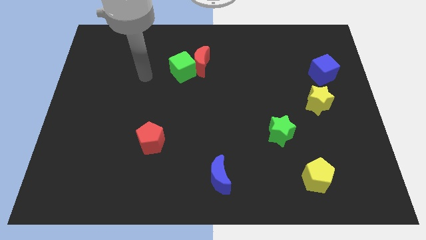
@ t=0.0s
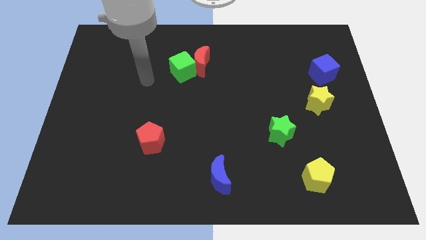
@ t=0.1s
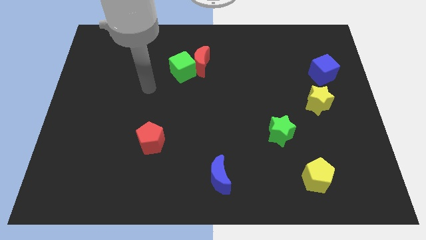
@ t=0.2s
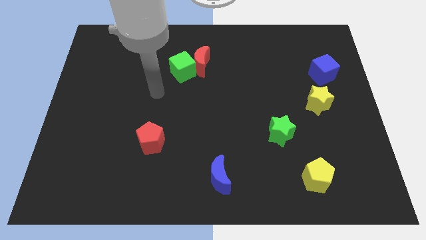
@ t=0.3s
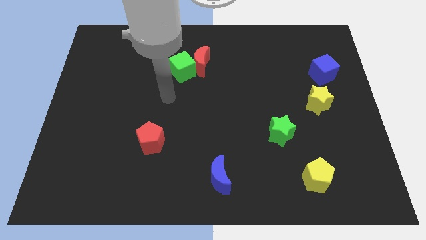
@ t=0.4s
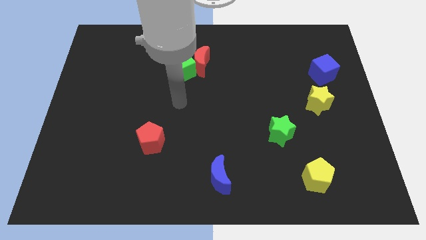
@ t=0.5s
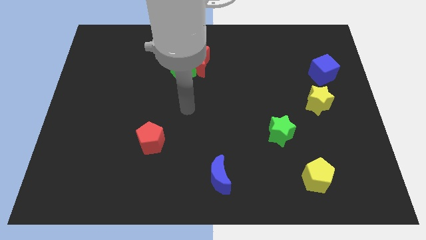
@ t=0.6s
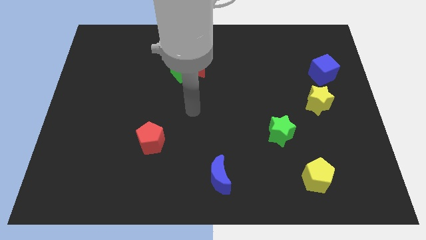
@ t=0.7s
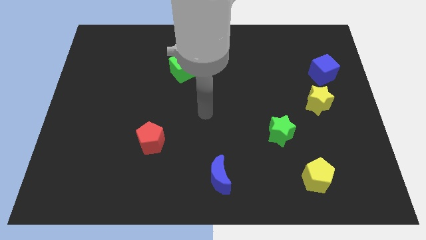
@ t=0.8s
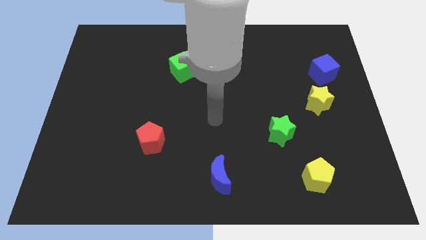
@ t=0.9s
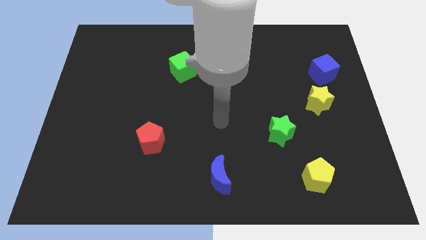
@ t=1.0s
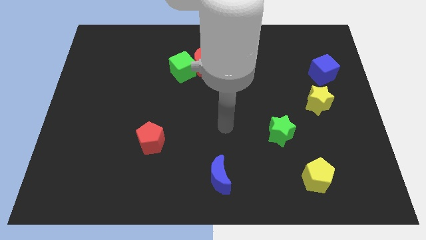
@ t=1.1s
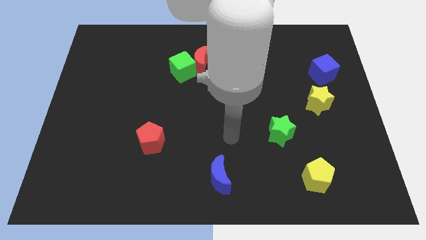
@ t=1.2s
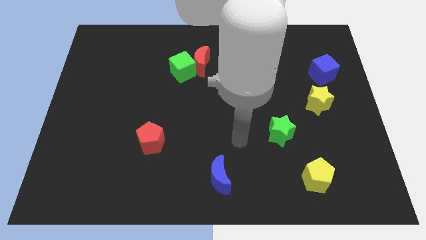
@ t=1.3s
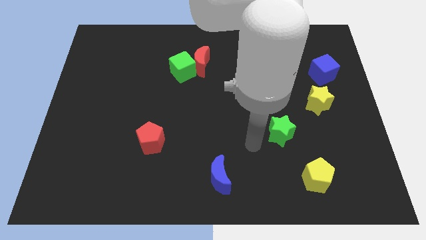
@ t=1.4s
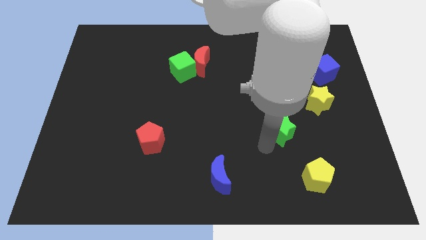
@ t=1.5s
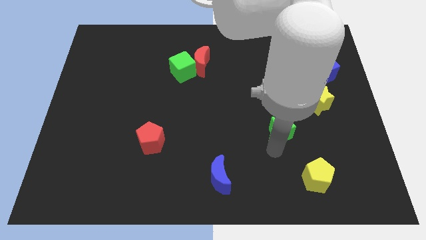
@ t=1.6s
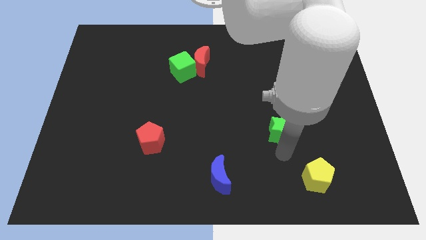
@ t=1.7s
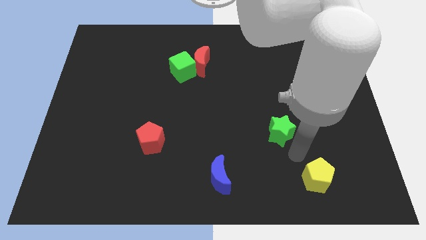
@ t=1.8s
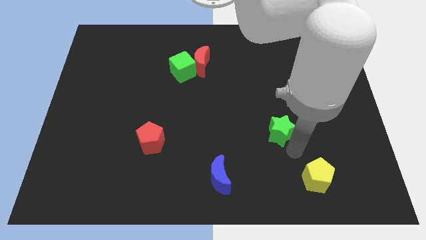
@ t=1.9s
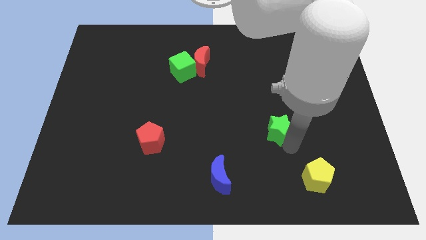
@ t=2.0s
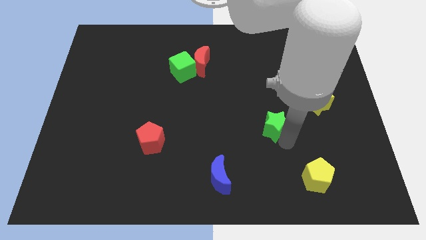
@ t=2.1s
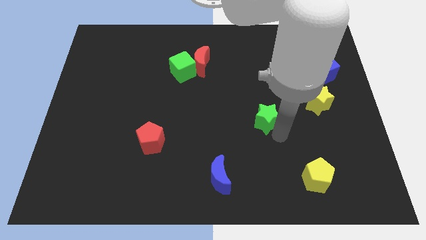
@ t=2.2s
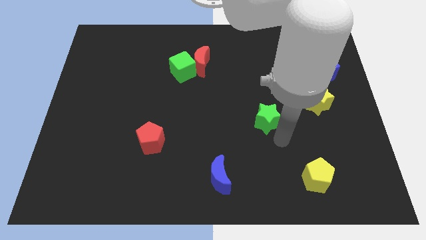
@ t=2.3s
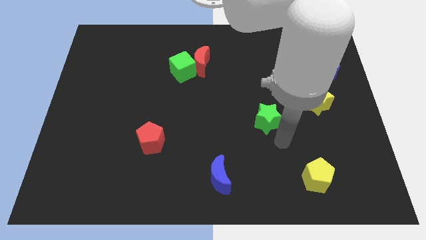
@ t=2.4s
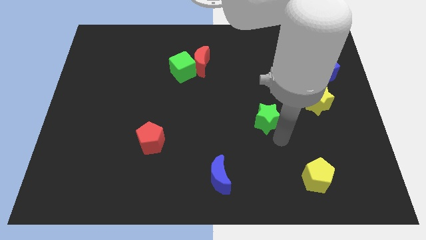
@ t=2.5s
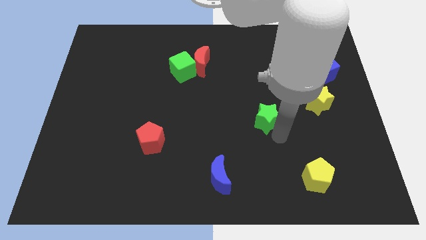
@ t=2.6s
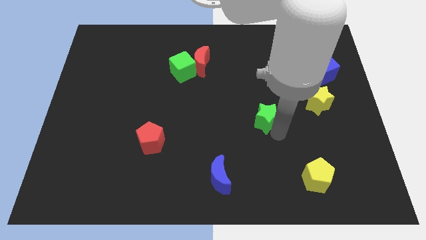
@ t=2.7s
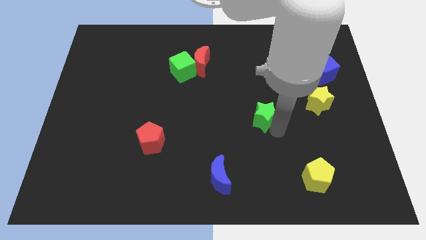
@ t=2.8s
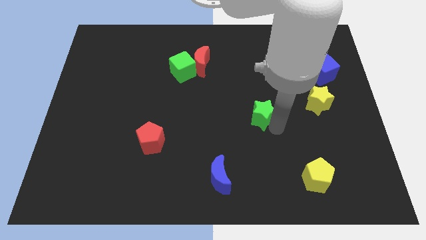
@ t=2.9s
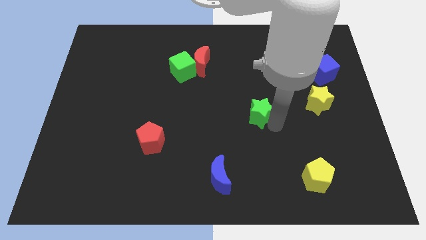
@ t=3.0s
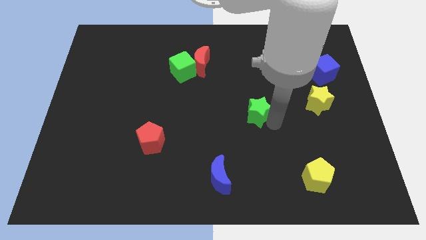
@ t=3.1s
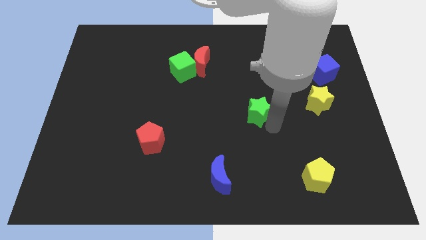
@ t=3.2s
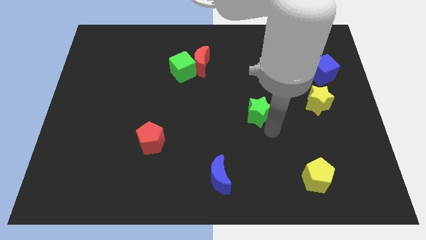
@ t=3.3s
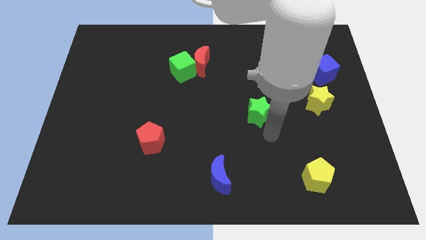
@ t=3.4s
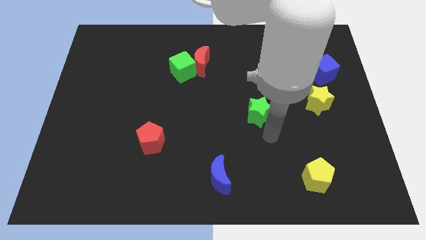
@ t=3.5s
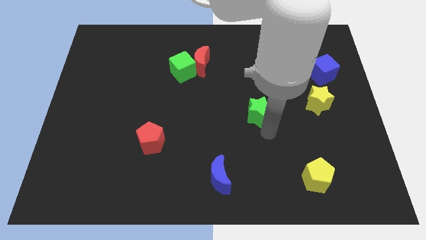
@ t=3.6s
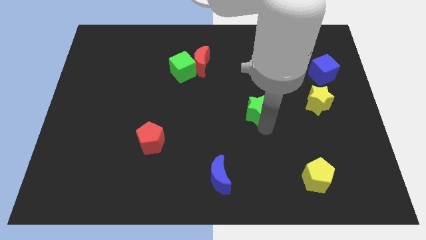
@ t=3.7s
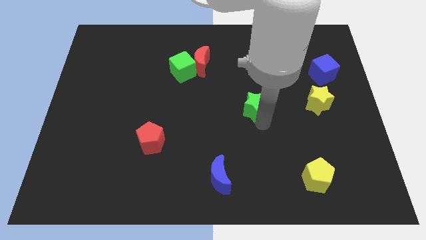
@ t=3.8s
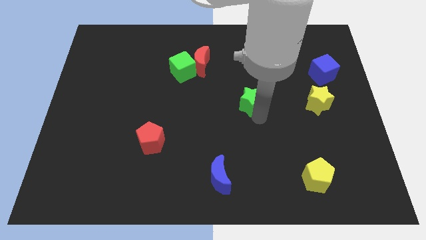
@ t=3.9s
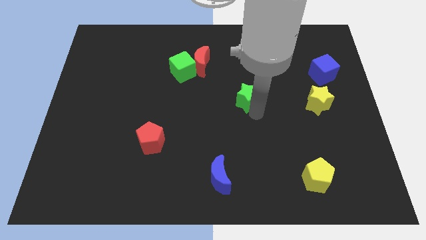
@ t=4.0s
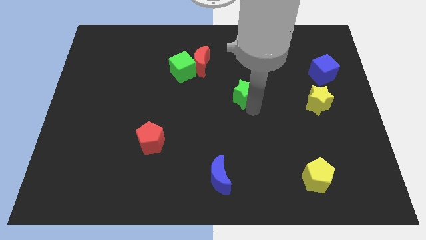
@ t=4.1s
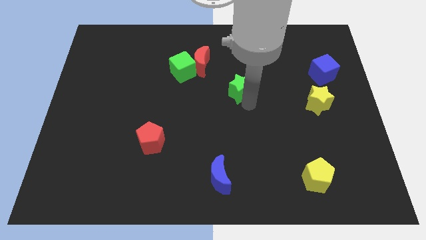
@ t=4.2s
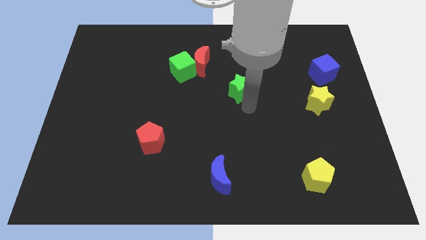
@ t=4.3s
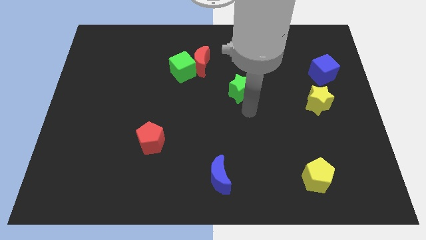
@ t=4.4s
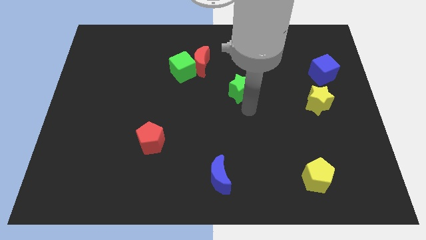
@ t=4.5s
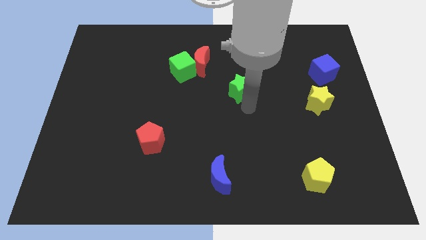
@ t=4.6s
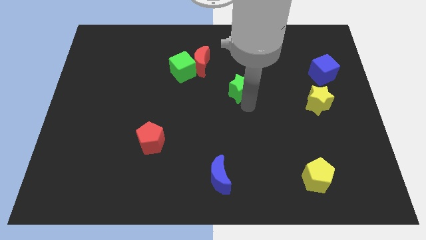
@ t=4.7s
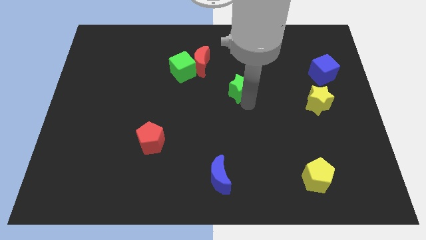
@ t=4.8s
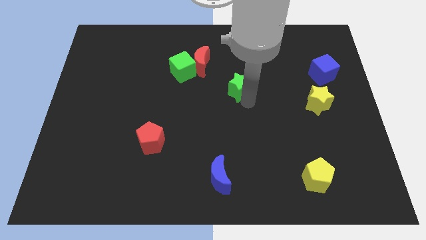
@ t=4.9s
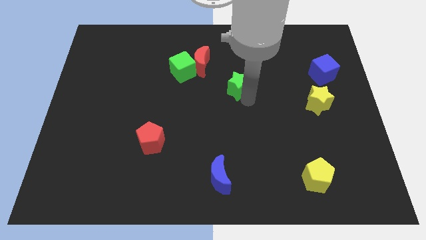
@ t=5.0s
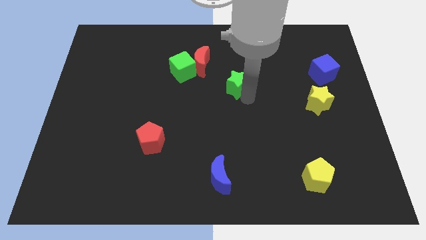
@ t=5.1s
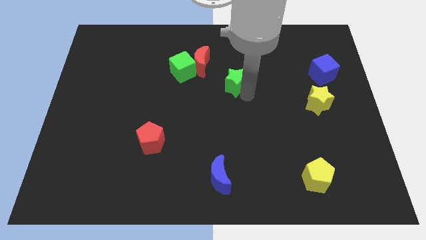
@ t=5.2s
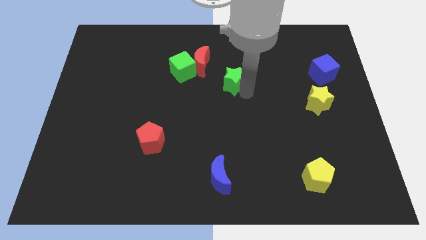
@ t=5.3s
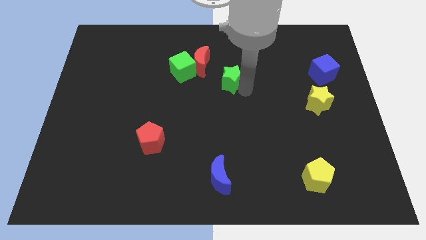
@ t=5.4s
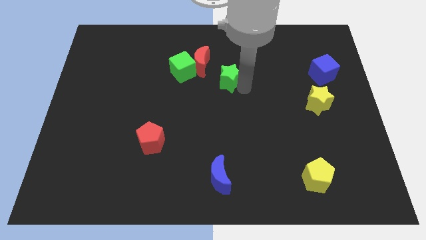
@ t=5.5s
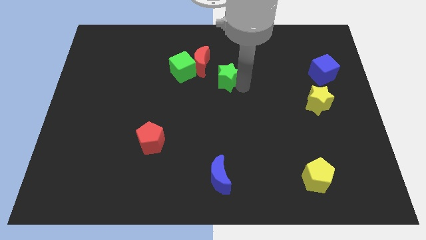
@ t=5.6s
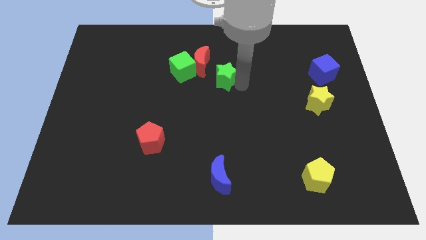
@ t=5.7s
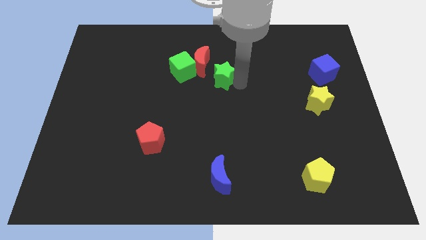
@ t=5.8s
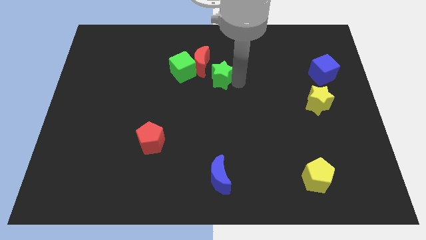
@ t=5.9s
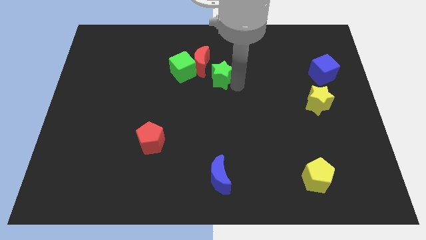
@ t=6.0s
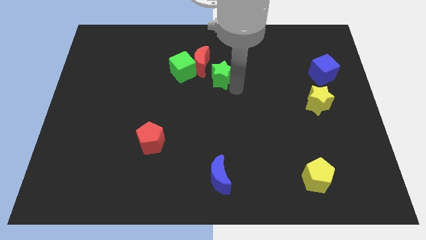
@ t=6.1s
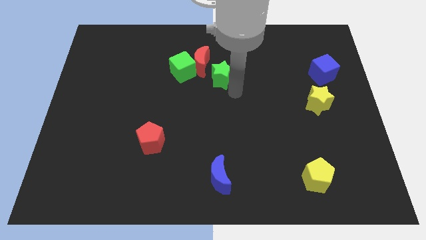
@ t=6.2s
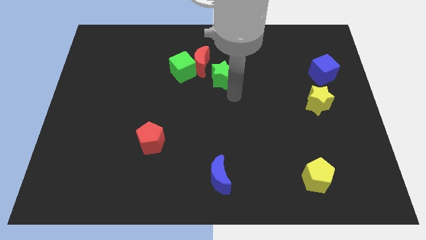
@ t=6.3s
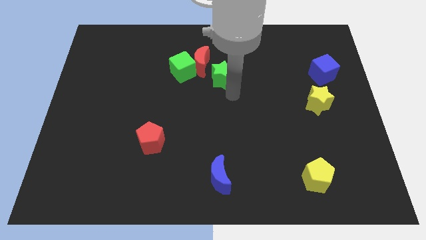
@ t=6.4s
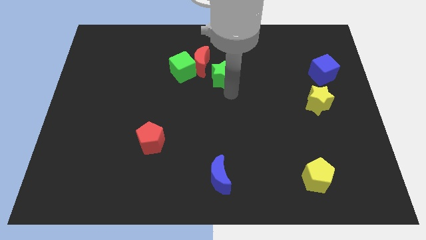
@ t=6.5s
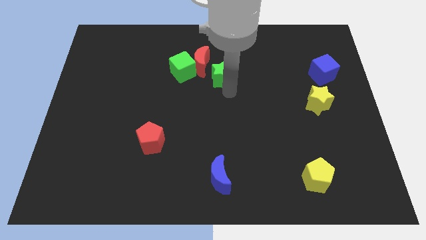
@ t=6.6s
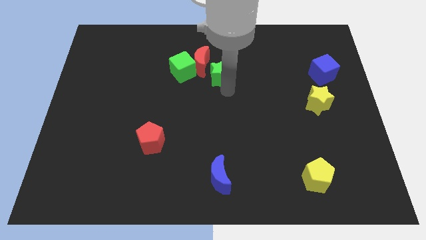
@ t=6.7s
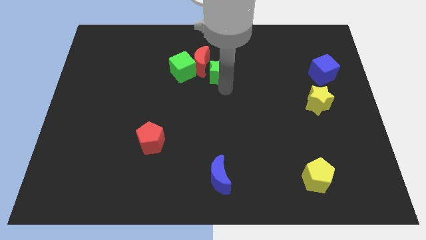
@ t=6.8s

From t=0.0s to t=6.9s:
put the green star close to the red moon

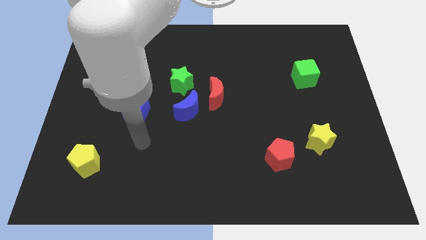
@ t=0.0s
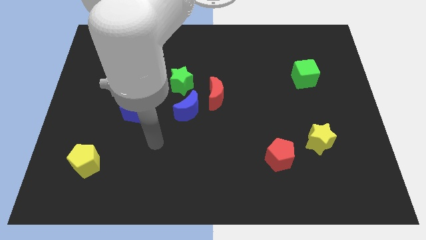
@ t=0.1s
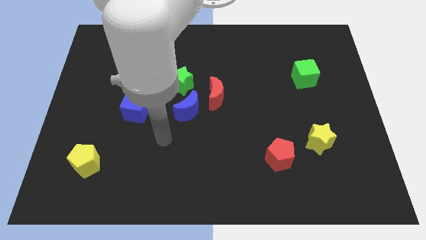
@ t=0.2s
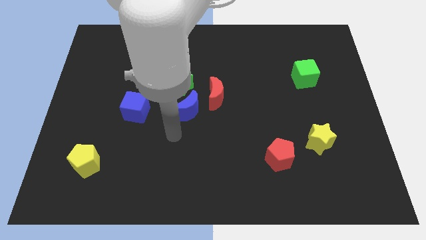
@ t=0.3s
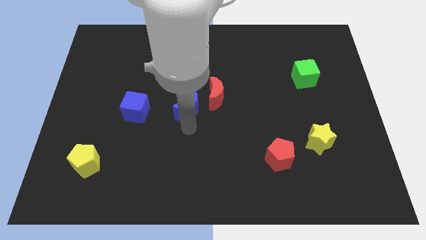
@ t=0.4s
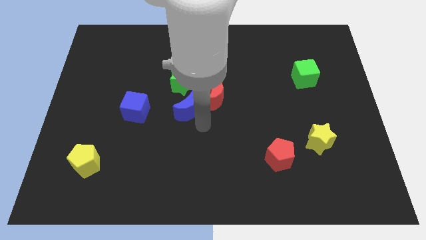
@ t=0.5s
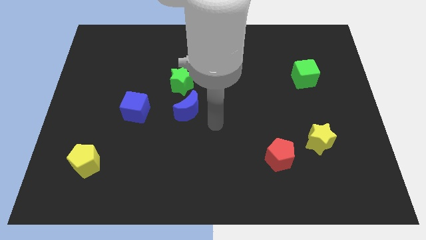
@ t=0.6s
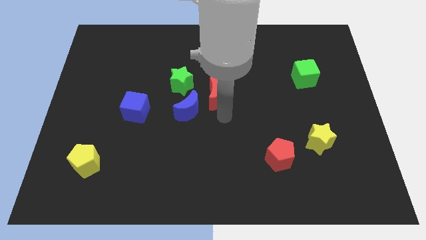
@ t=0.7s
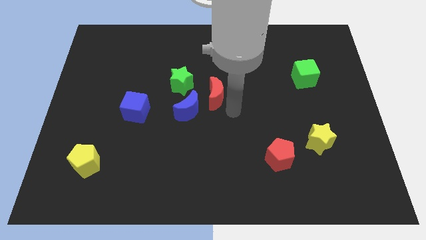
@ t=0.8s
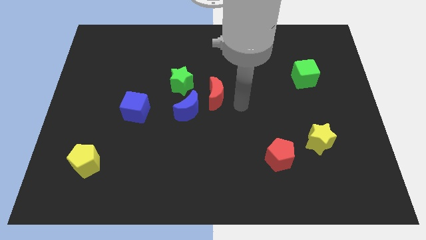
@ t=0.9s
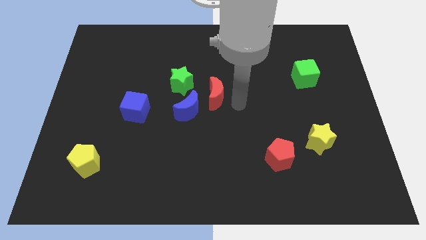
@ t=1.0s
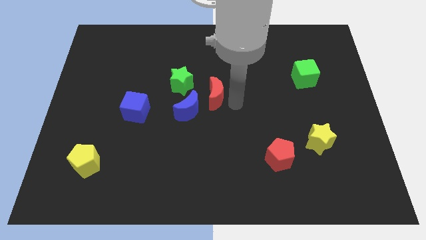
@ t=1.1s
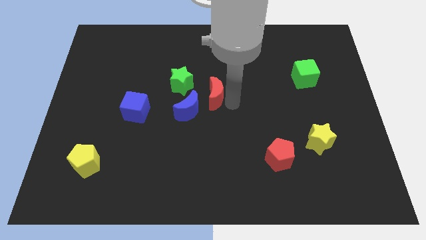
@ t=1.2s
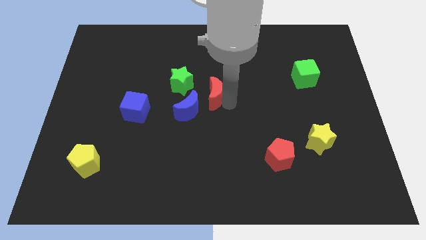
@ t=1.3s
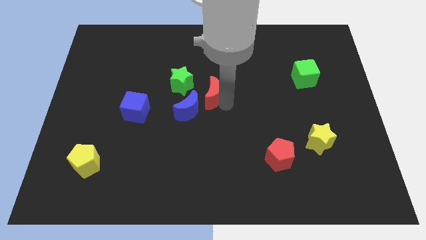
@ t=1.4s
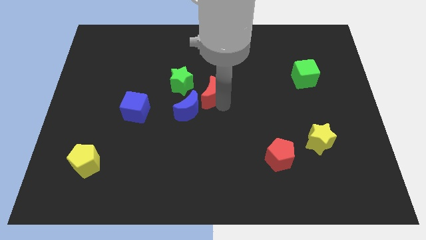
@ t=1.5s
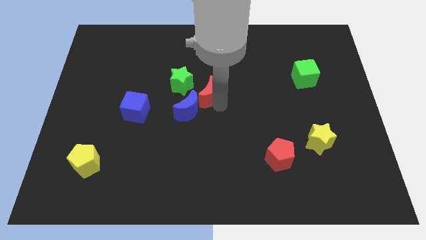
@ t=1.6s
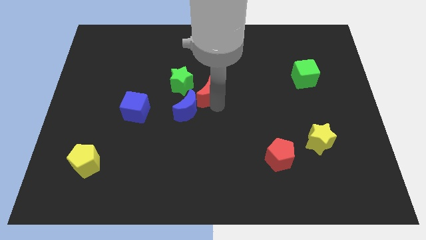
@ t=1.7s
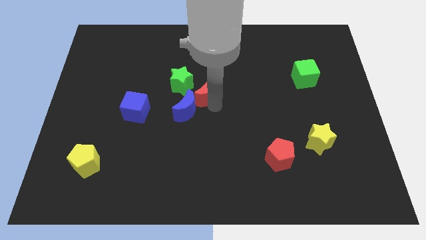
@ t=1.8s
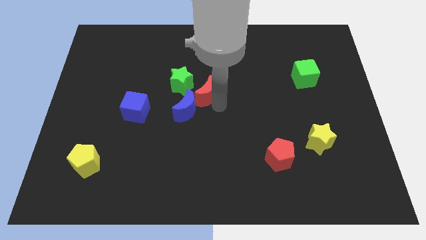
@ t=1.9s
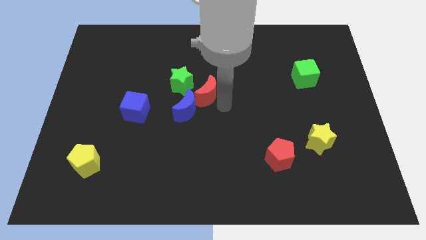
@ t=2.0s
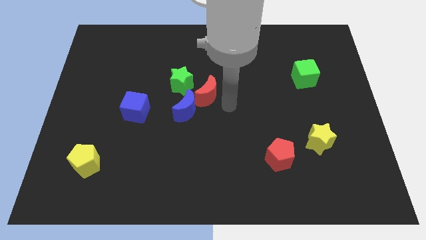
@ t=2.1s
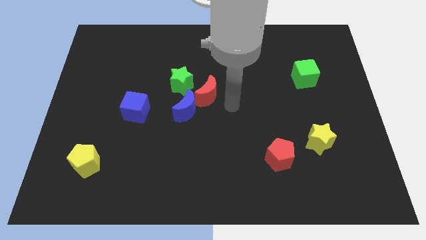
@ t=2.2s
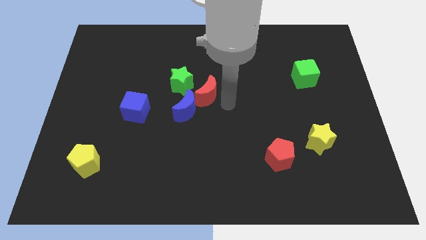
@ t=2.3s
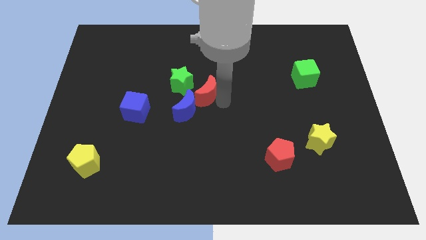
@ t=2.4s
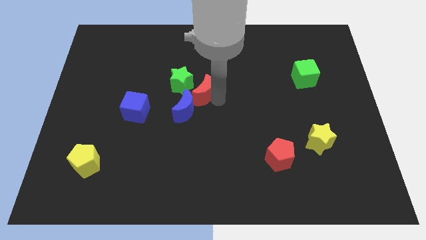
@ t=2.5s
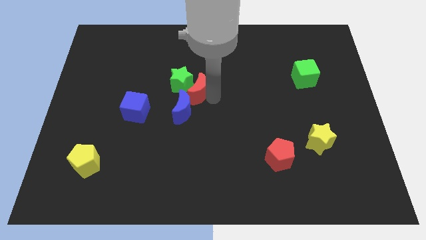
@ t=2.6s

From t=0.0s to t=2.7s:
slide the red moon towards the green star
